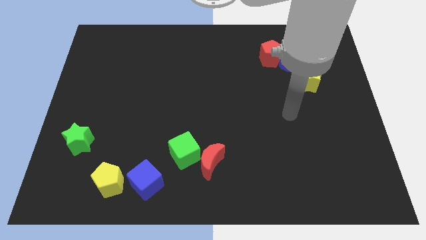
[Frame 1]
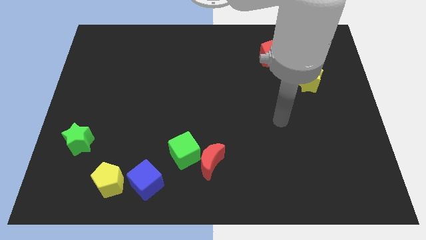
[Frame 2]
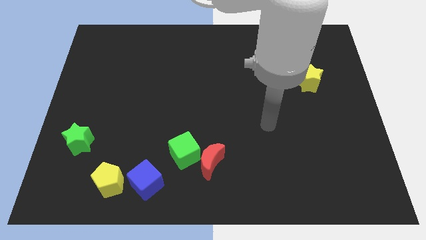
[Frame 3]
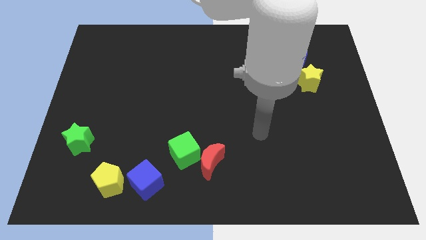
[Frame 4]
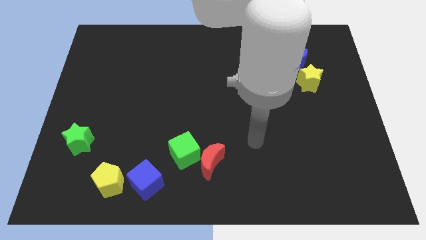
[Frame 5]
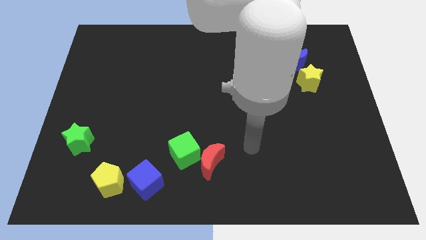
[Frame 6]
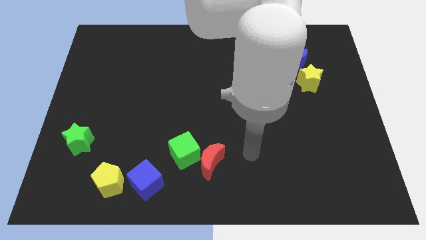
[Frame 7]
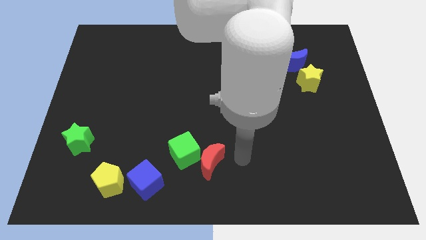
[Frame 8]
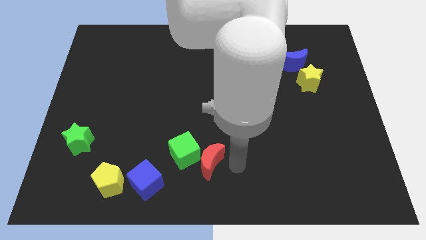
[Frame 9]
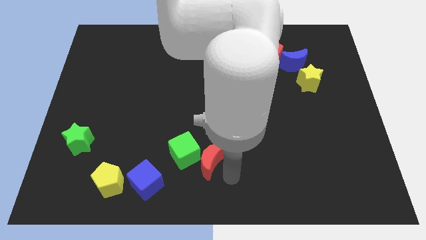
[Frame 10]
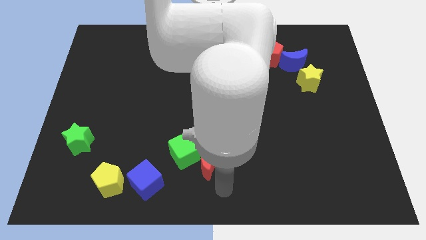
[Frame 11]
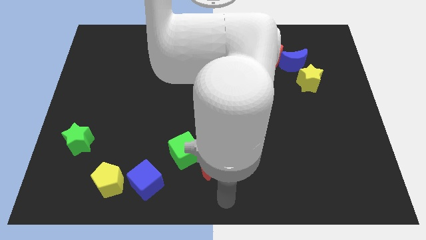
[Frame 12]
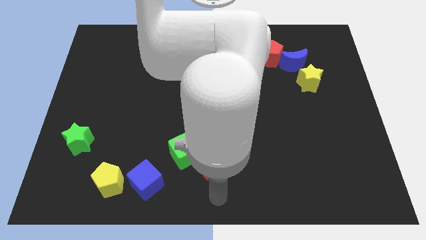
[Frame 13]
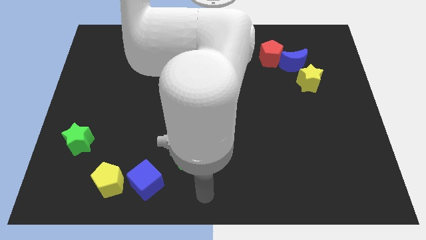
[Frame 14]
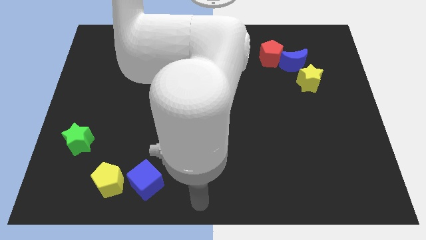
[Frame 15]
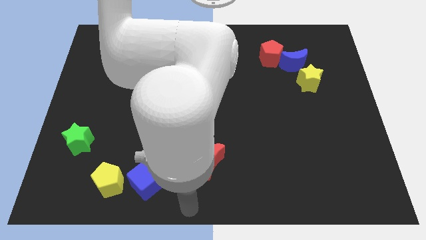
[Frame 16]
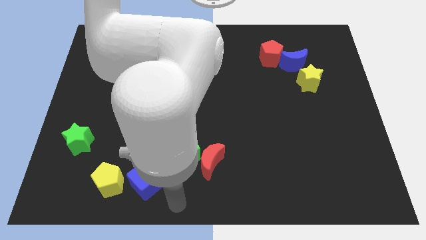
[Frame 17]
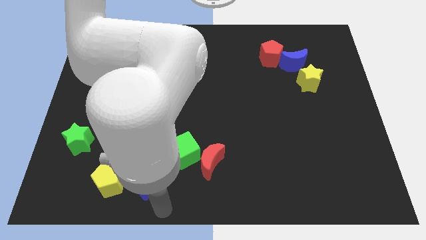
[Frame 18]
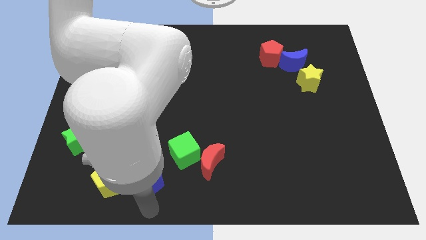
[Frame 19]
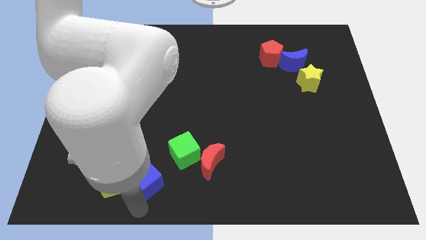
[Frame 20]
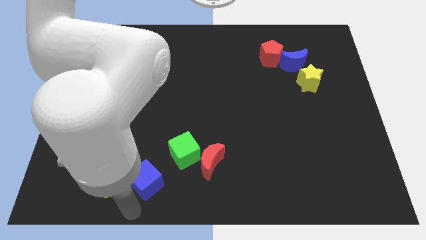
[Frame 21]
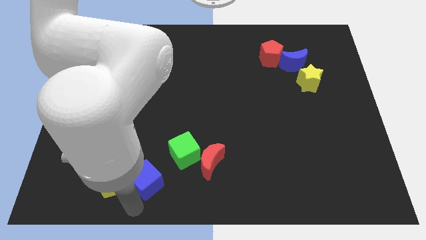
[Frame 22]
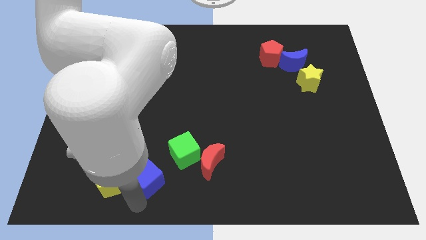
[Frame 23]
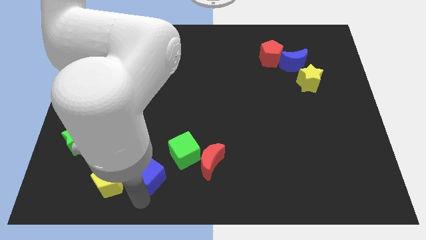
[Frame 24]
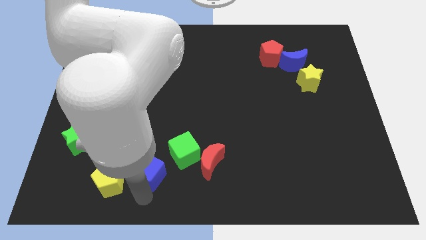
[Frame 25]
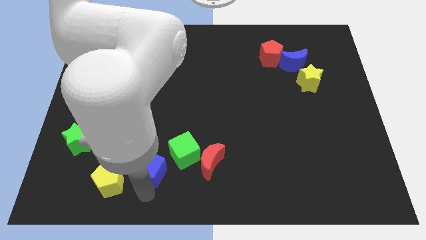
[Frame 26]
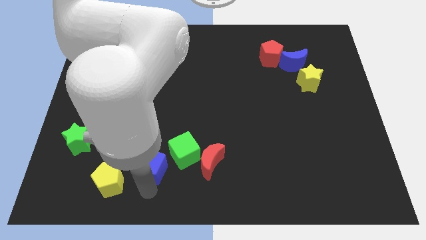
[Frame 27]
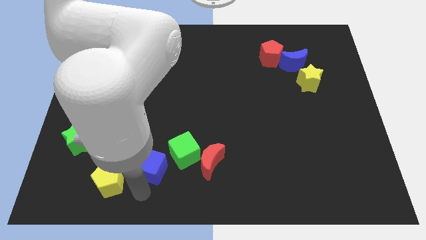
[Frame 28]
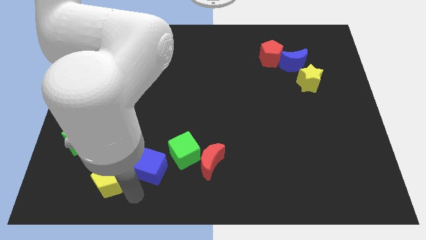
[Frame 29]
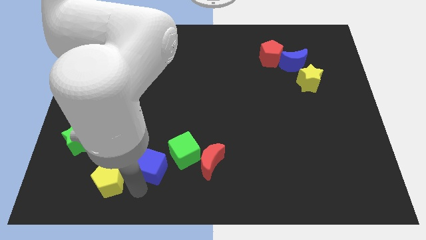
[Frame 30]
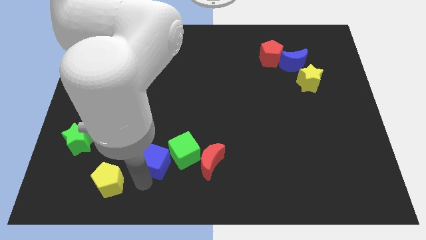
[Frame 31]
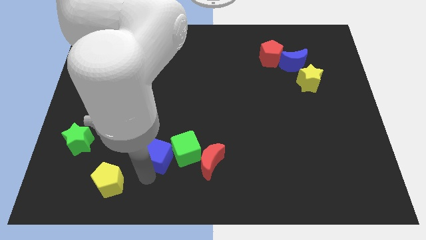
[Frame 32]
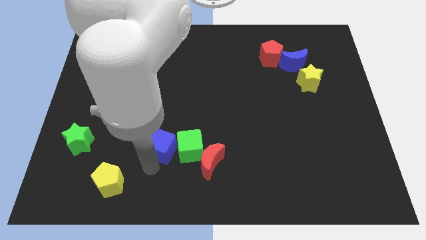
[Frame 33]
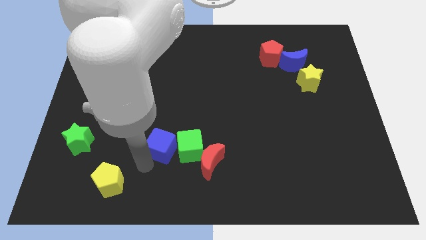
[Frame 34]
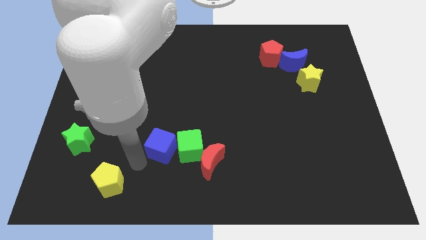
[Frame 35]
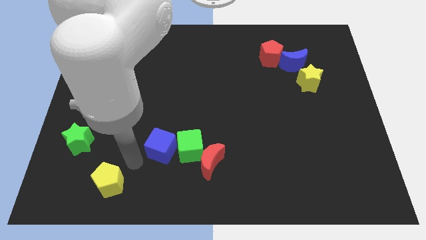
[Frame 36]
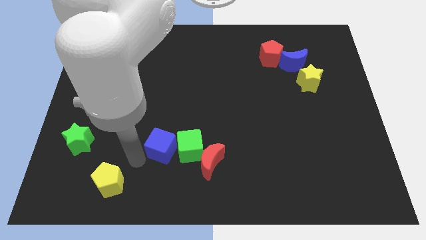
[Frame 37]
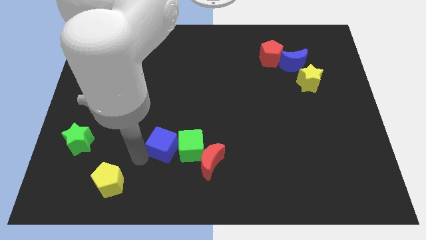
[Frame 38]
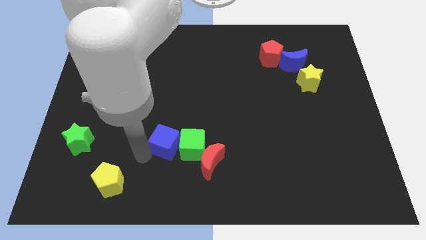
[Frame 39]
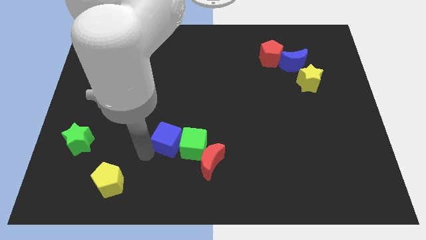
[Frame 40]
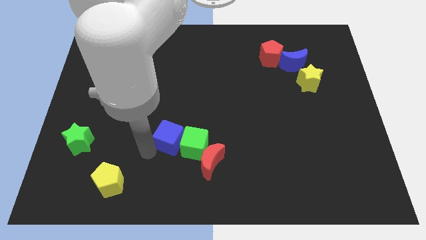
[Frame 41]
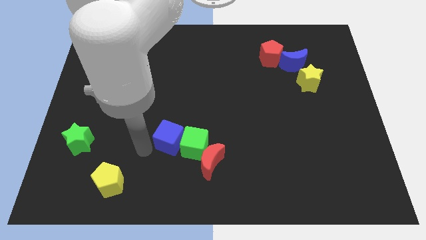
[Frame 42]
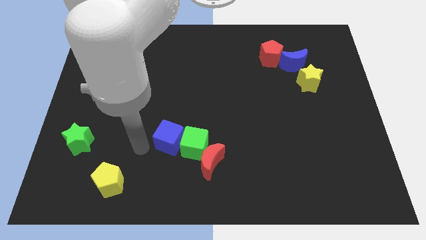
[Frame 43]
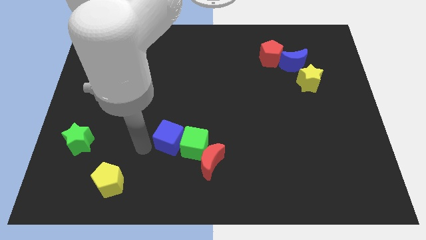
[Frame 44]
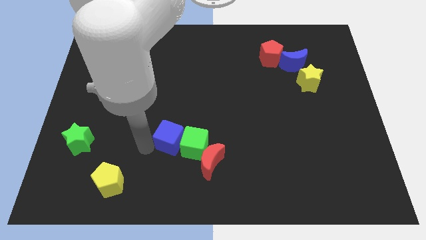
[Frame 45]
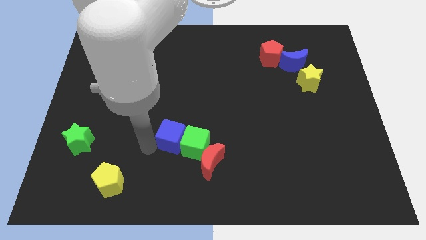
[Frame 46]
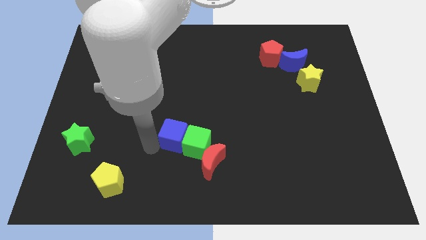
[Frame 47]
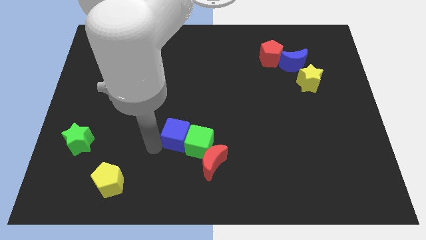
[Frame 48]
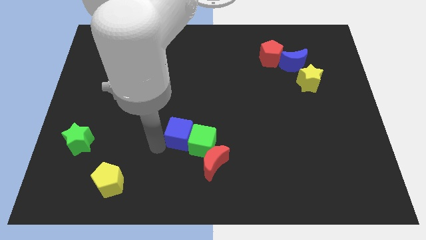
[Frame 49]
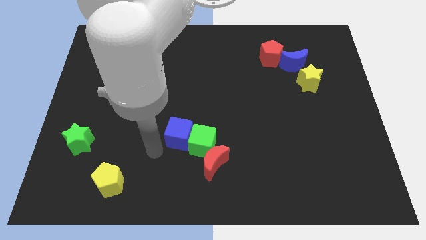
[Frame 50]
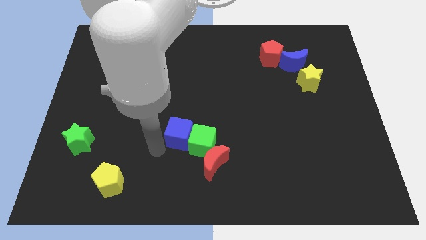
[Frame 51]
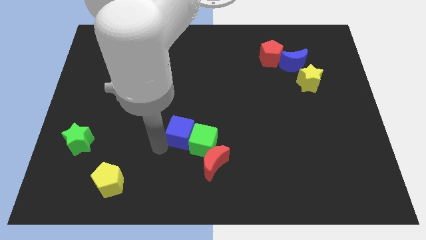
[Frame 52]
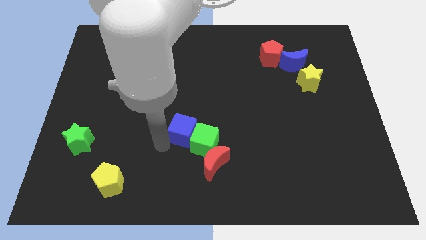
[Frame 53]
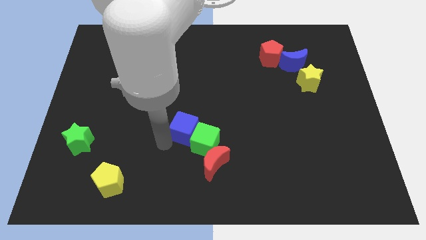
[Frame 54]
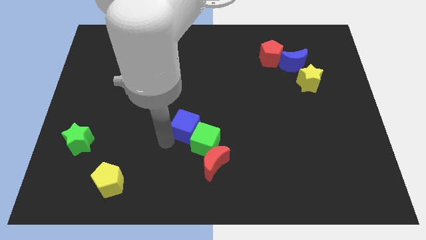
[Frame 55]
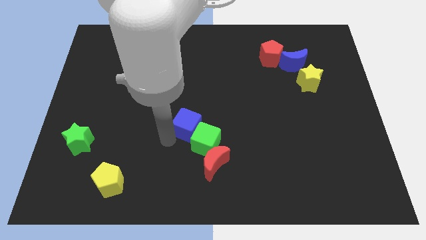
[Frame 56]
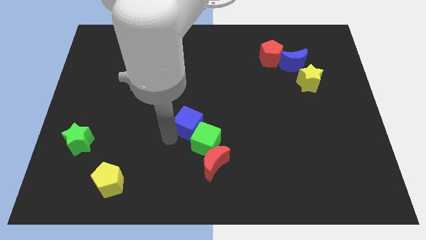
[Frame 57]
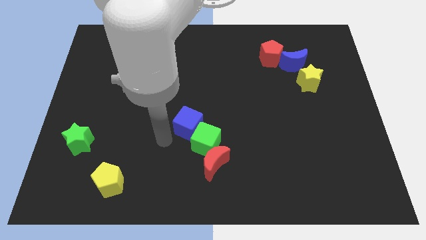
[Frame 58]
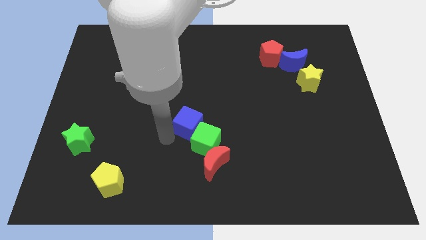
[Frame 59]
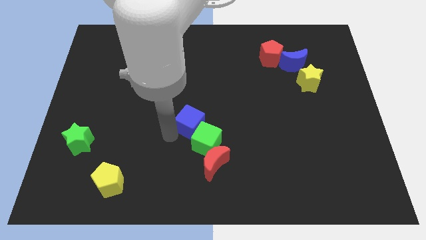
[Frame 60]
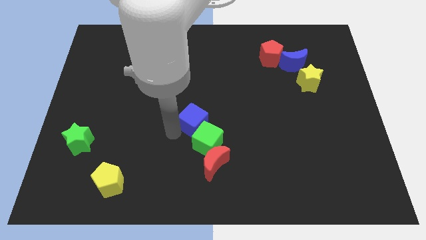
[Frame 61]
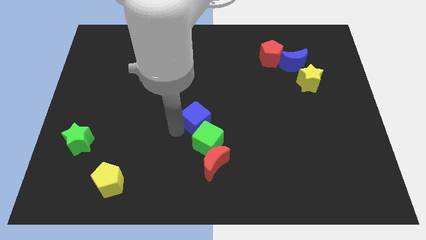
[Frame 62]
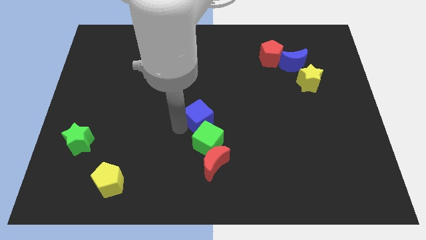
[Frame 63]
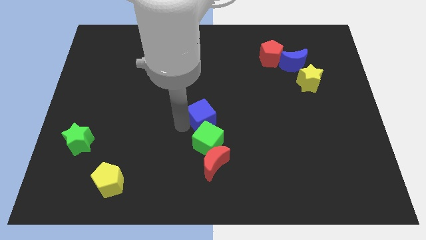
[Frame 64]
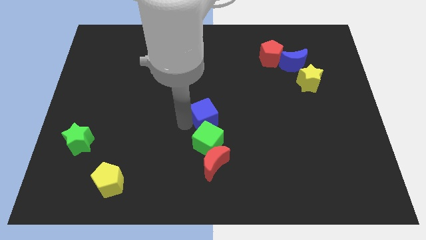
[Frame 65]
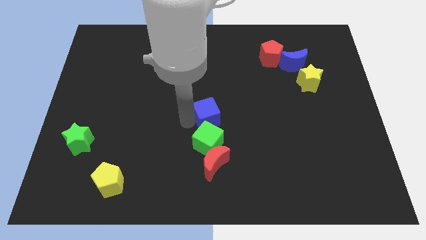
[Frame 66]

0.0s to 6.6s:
move the blue cube upwards and then right

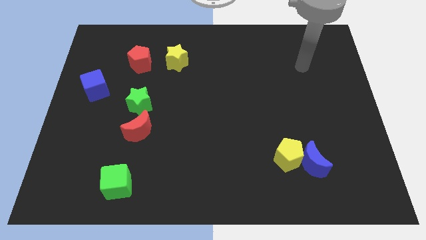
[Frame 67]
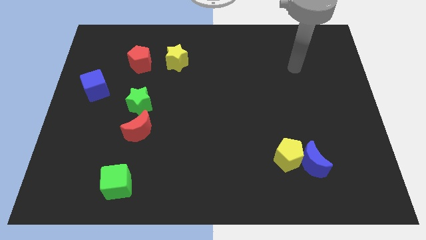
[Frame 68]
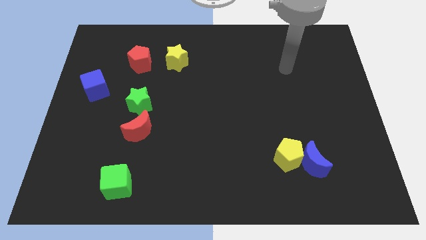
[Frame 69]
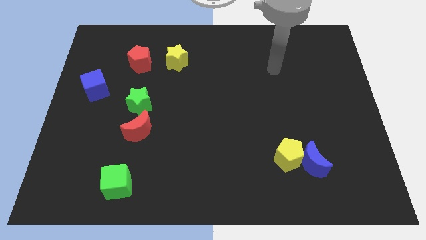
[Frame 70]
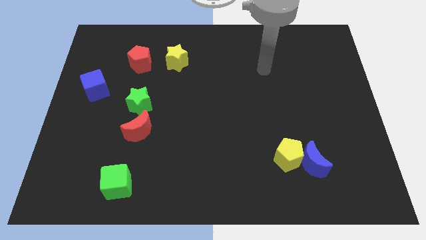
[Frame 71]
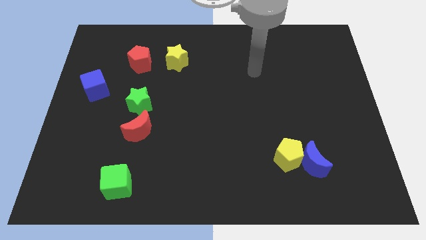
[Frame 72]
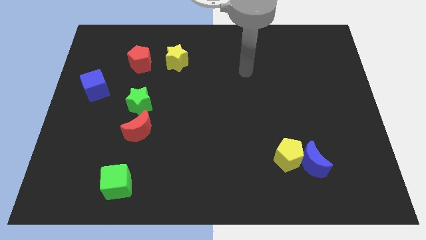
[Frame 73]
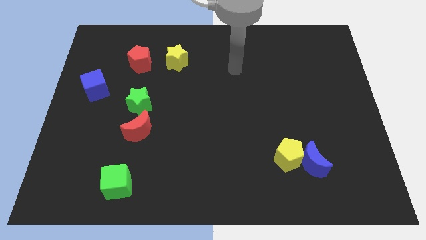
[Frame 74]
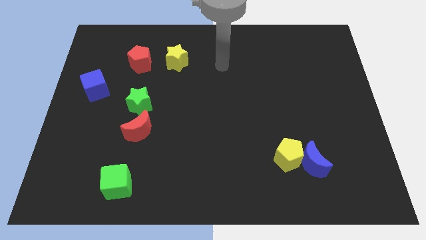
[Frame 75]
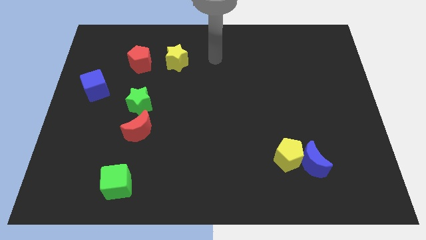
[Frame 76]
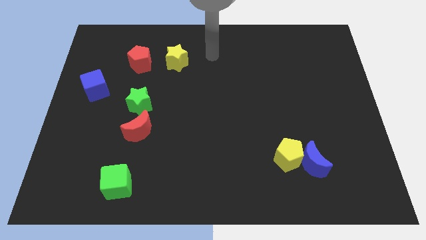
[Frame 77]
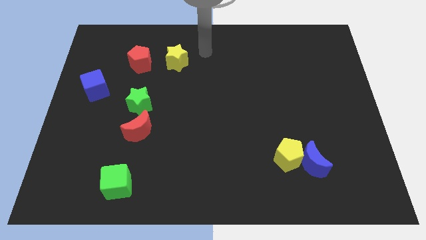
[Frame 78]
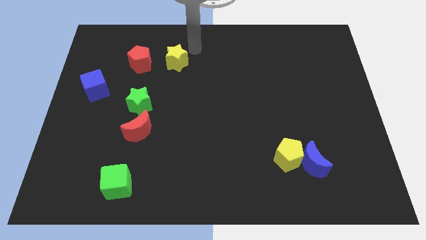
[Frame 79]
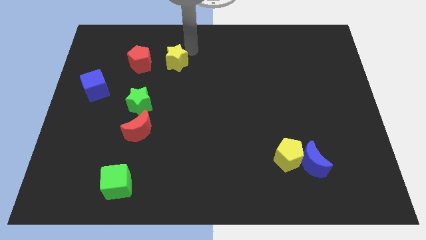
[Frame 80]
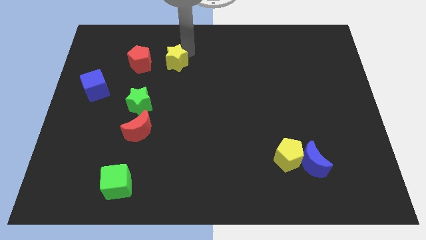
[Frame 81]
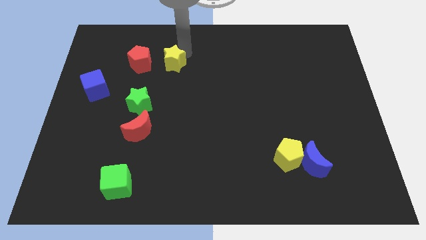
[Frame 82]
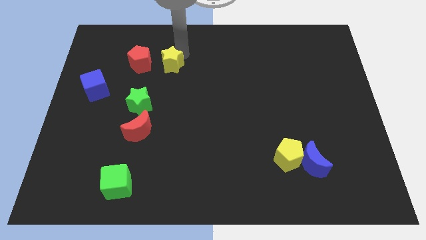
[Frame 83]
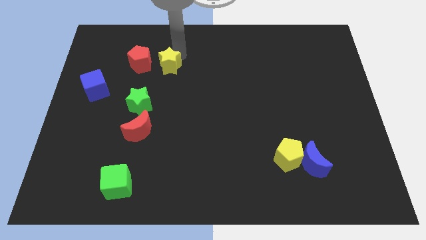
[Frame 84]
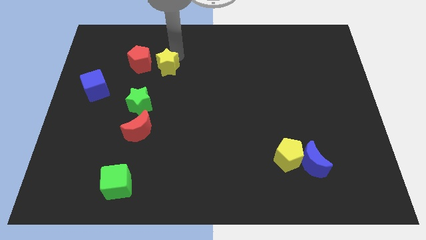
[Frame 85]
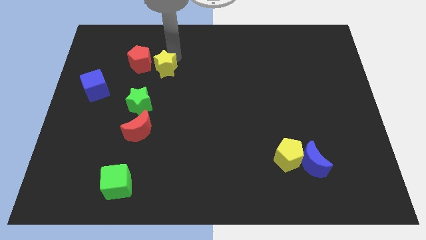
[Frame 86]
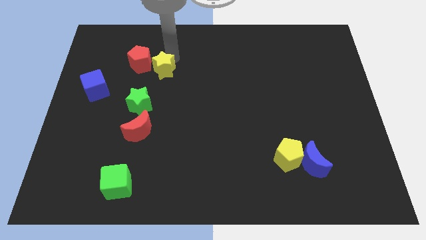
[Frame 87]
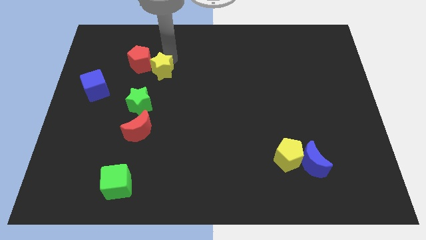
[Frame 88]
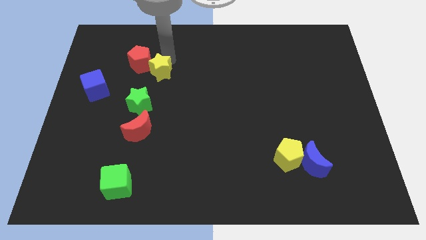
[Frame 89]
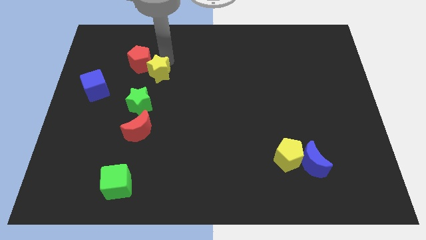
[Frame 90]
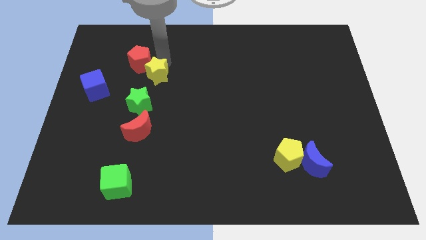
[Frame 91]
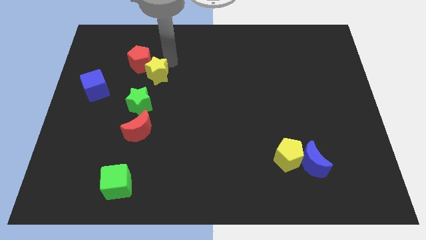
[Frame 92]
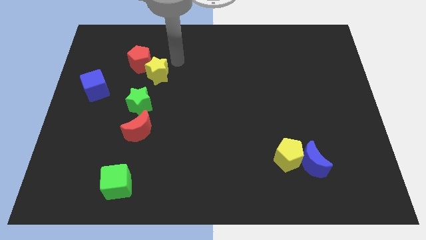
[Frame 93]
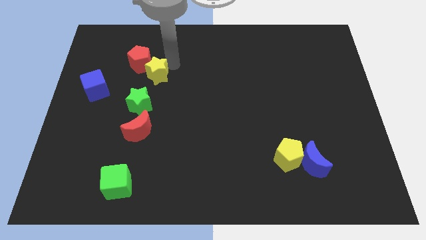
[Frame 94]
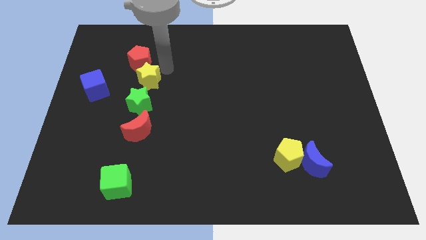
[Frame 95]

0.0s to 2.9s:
push the yellow star slightly downwards and then left
